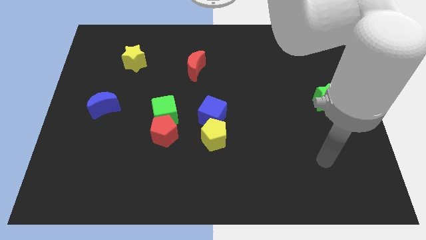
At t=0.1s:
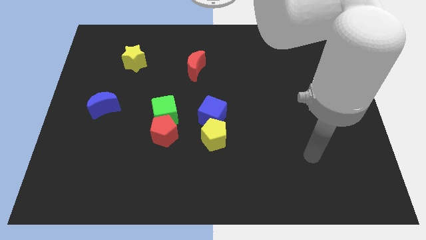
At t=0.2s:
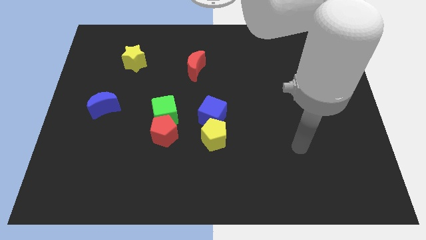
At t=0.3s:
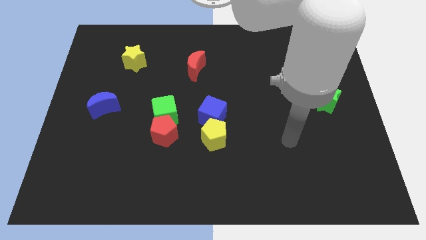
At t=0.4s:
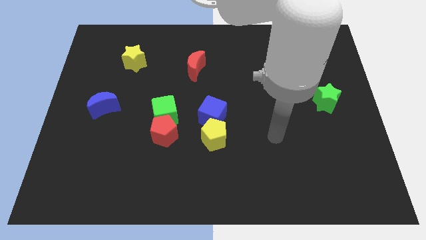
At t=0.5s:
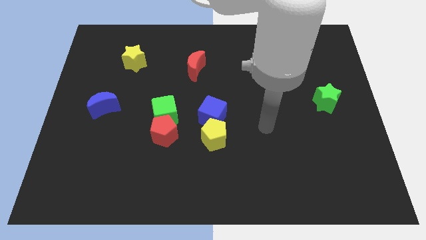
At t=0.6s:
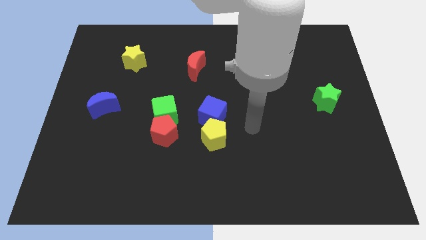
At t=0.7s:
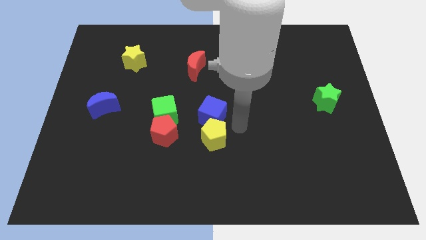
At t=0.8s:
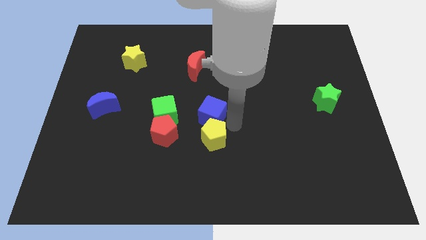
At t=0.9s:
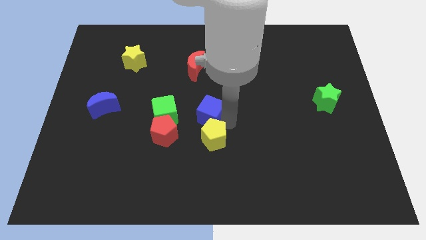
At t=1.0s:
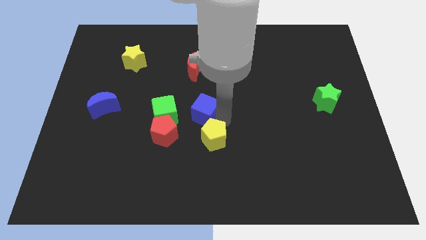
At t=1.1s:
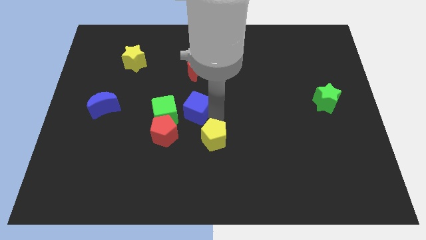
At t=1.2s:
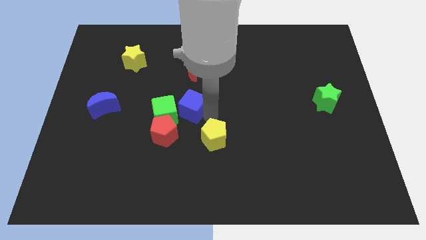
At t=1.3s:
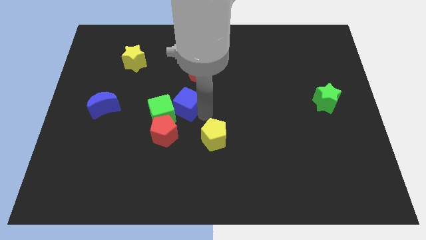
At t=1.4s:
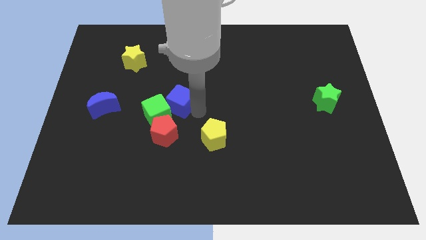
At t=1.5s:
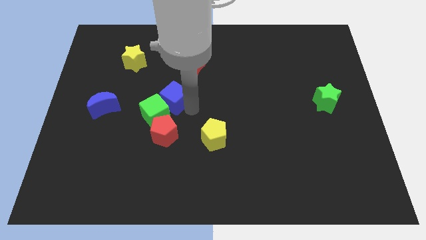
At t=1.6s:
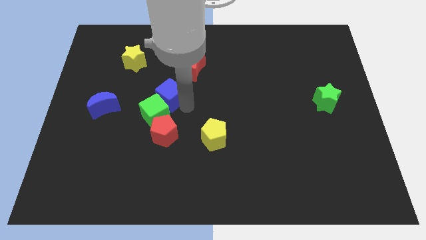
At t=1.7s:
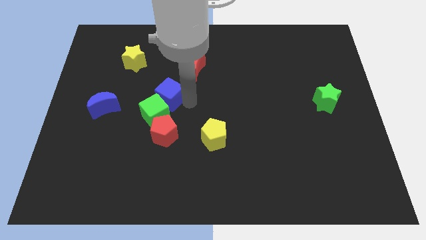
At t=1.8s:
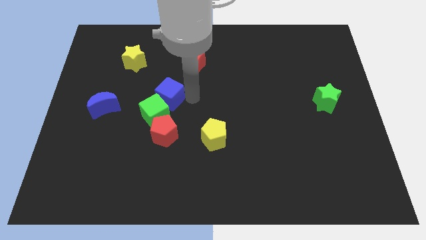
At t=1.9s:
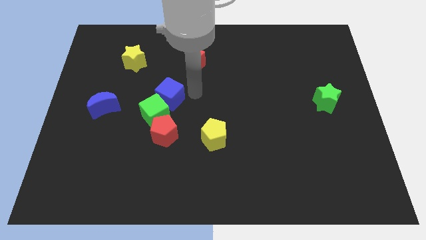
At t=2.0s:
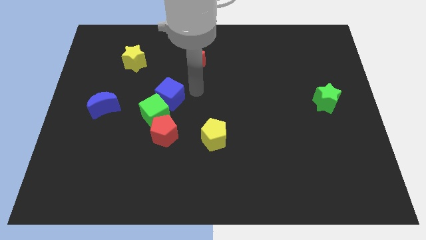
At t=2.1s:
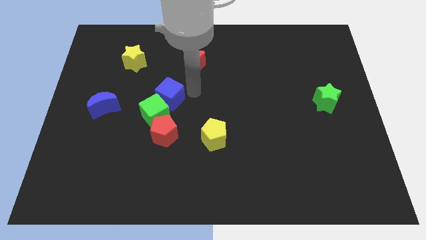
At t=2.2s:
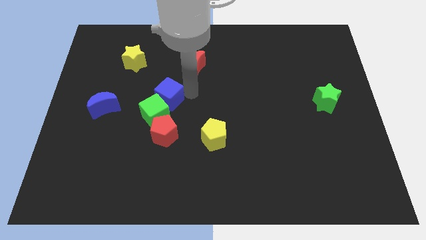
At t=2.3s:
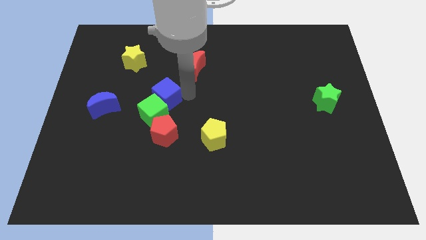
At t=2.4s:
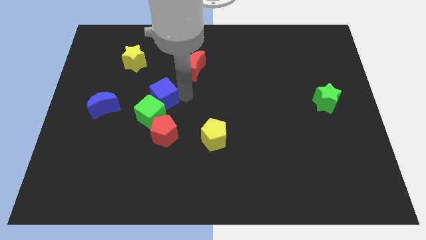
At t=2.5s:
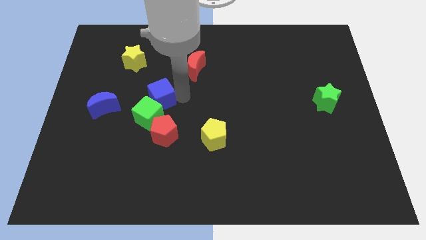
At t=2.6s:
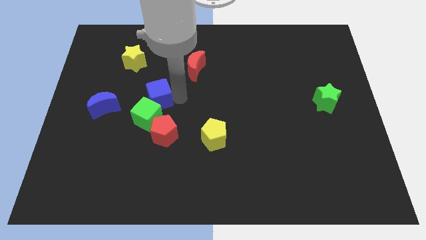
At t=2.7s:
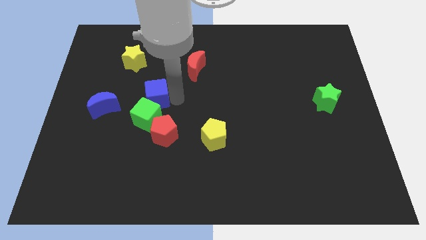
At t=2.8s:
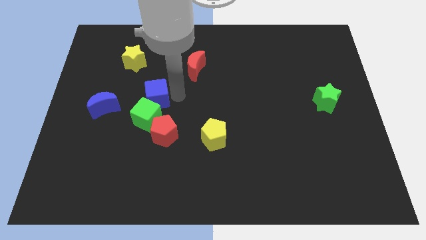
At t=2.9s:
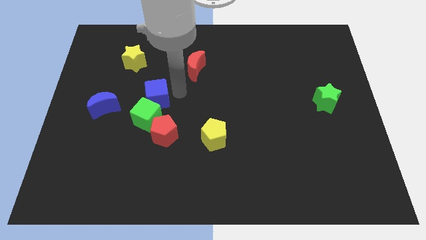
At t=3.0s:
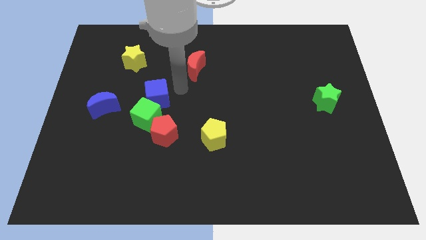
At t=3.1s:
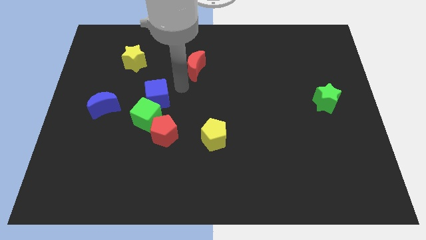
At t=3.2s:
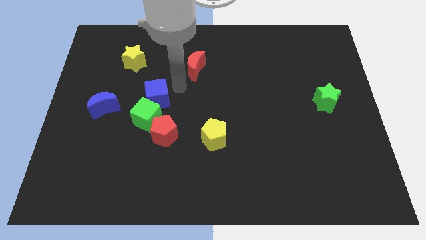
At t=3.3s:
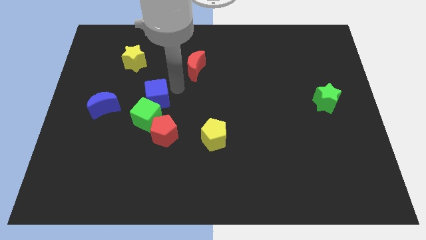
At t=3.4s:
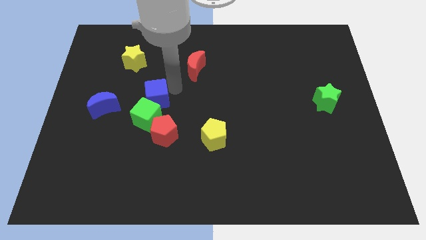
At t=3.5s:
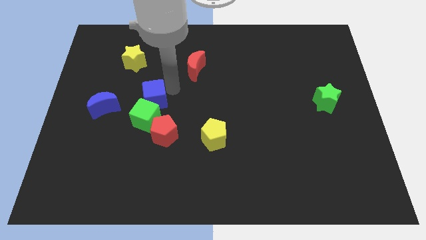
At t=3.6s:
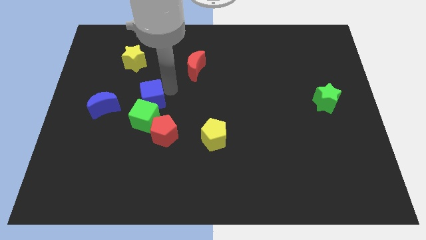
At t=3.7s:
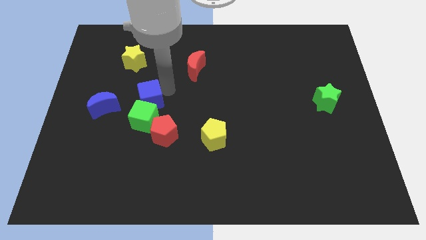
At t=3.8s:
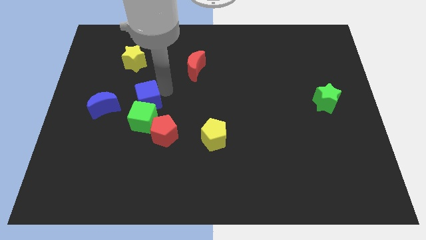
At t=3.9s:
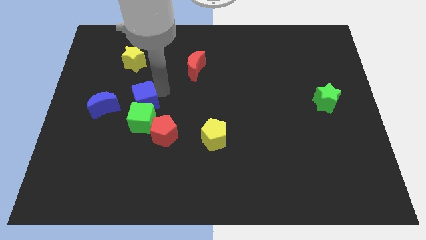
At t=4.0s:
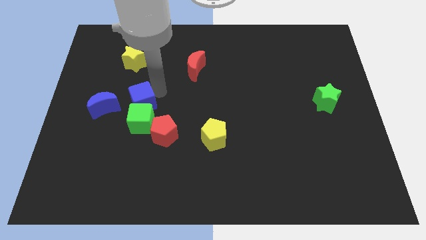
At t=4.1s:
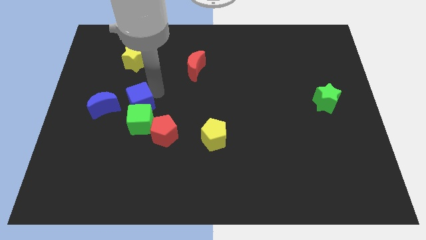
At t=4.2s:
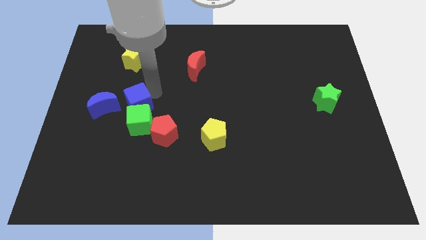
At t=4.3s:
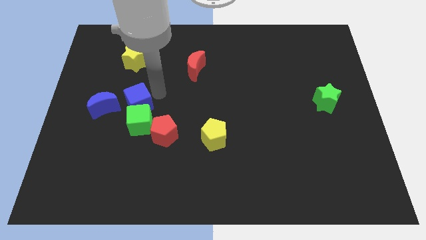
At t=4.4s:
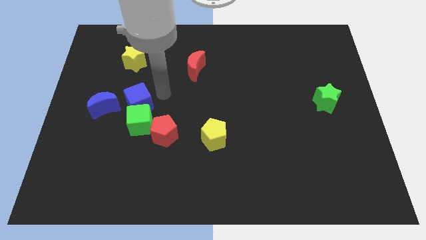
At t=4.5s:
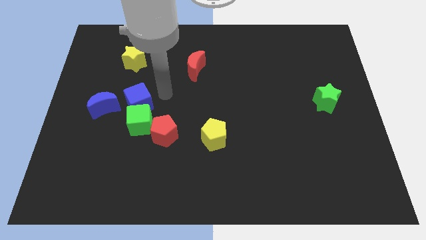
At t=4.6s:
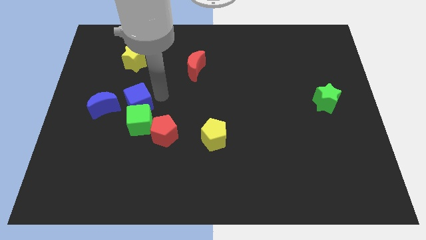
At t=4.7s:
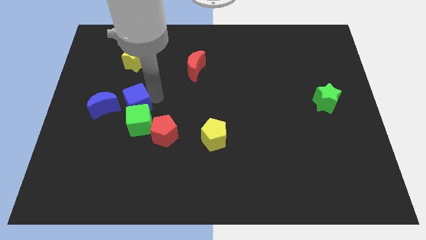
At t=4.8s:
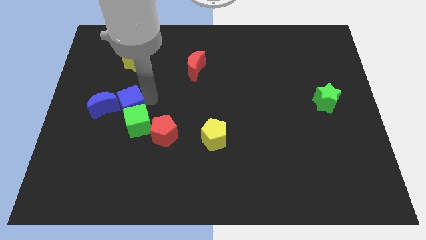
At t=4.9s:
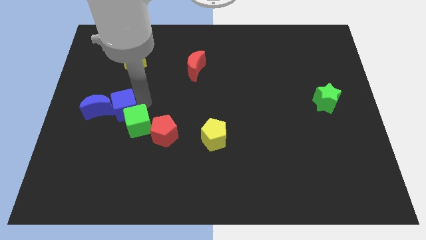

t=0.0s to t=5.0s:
push the blue cube to the blue moon

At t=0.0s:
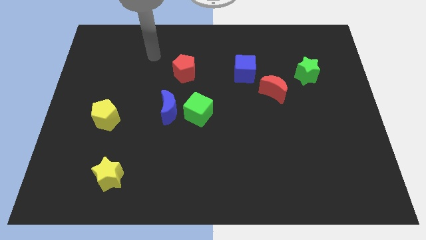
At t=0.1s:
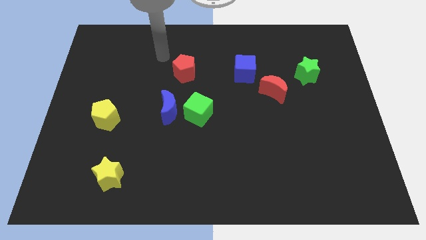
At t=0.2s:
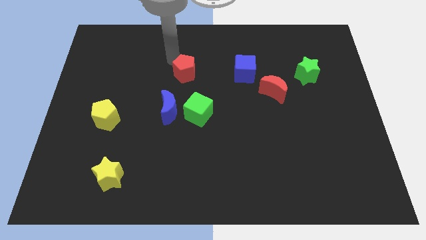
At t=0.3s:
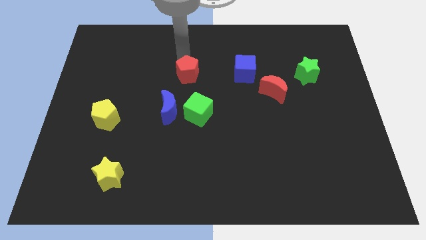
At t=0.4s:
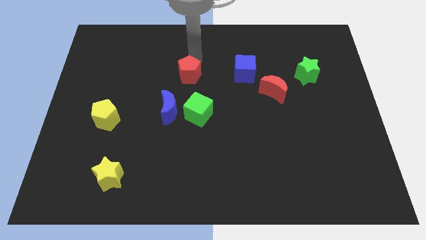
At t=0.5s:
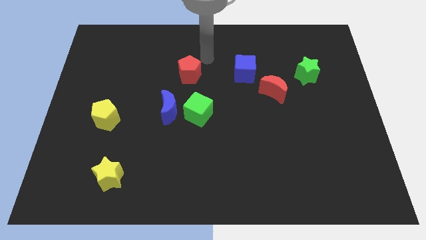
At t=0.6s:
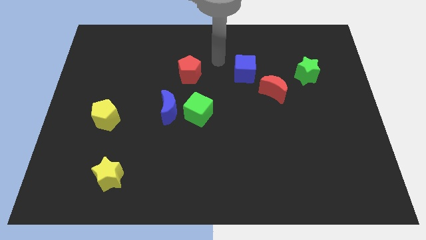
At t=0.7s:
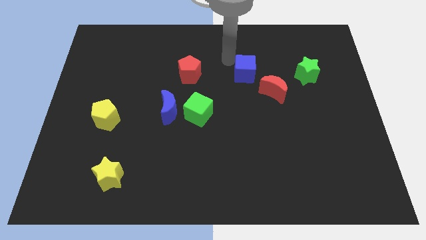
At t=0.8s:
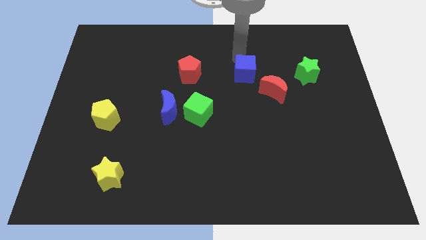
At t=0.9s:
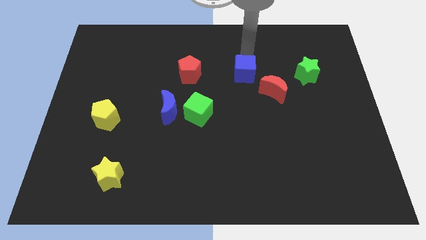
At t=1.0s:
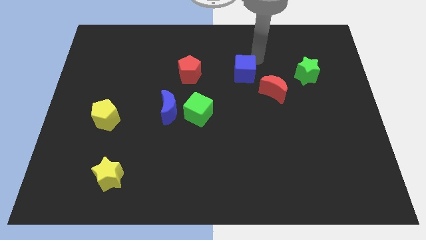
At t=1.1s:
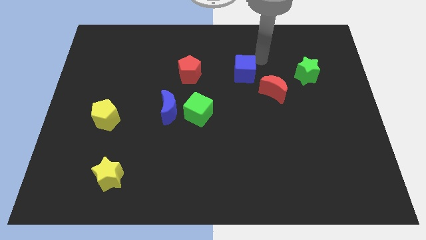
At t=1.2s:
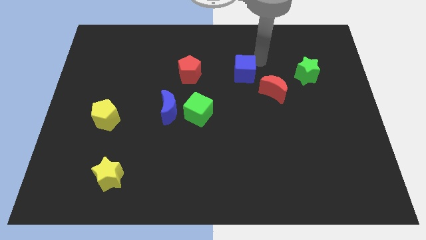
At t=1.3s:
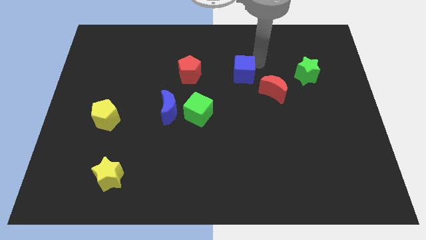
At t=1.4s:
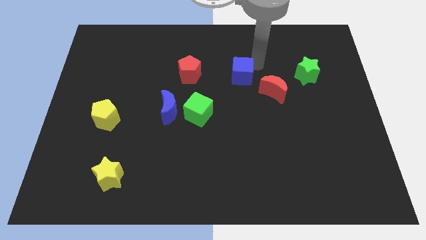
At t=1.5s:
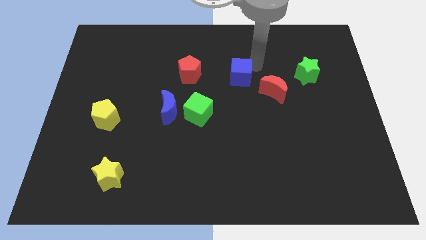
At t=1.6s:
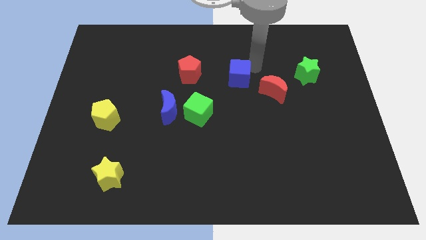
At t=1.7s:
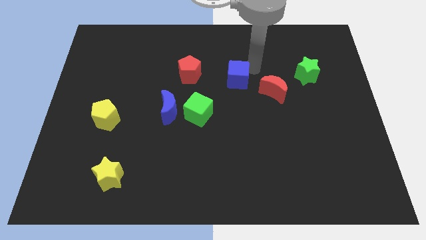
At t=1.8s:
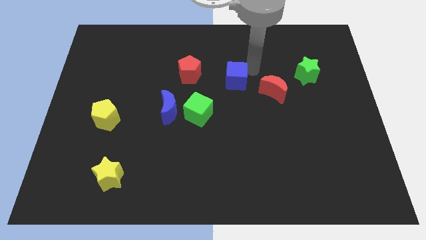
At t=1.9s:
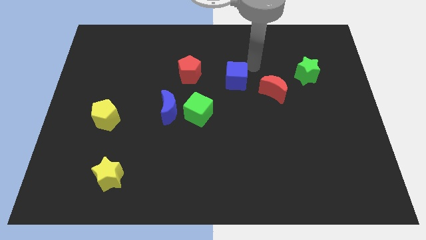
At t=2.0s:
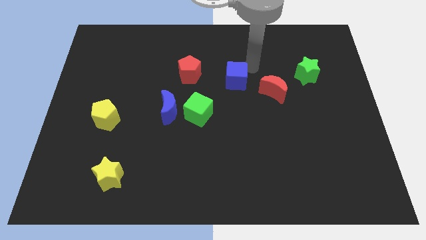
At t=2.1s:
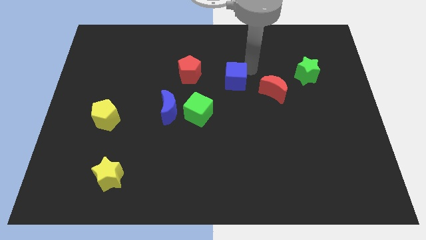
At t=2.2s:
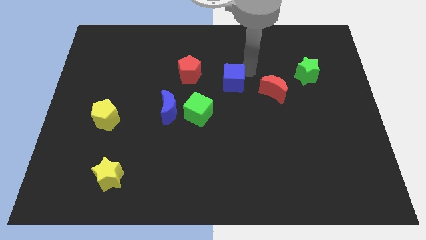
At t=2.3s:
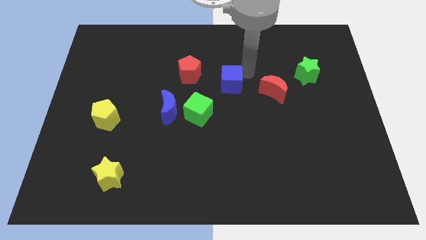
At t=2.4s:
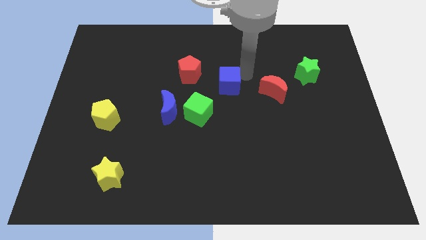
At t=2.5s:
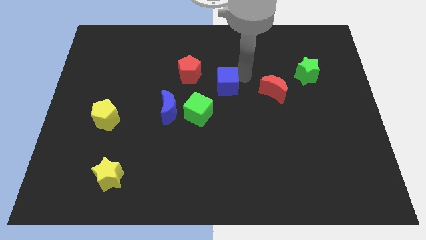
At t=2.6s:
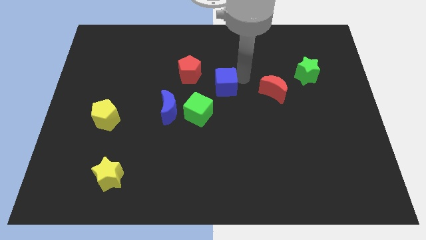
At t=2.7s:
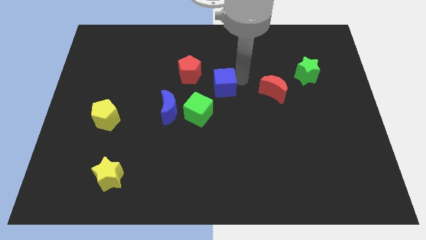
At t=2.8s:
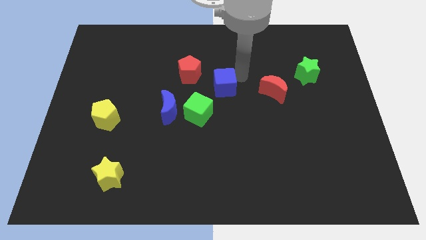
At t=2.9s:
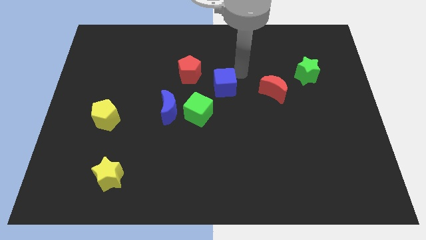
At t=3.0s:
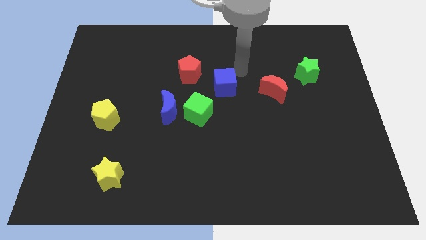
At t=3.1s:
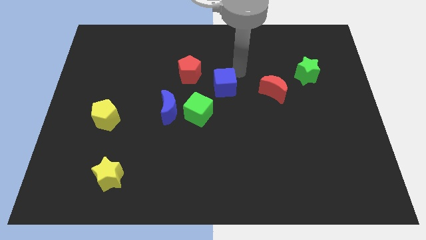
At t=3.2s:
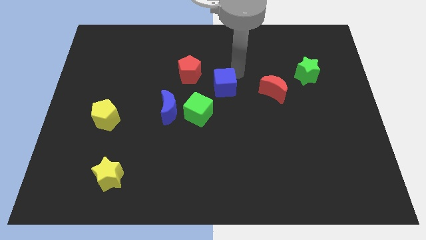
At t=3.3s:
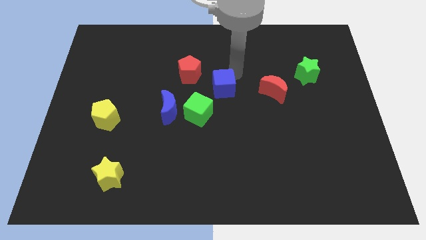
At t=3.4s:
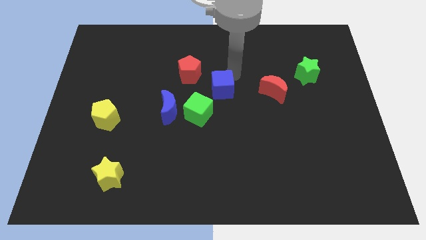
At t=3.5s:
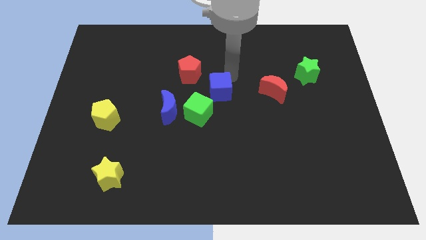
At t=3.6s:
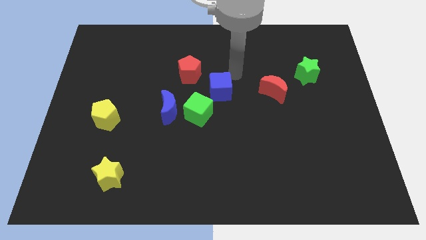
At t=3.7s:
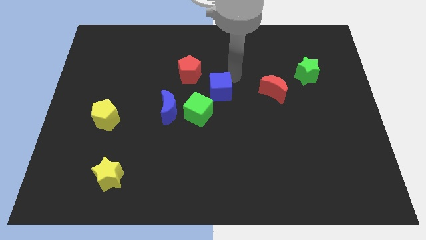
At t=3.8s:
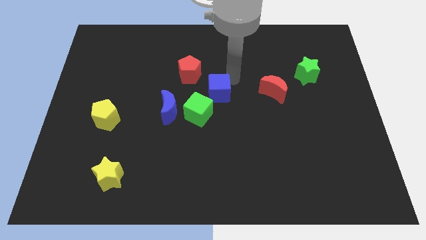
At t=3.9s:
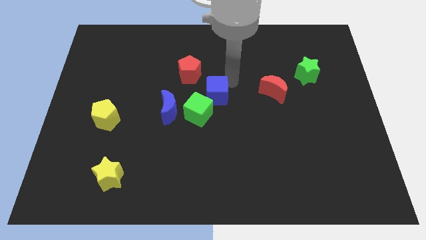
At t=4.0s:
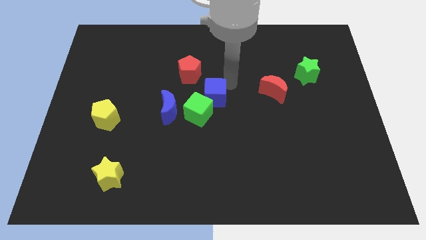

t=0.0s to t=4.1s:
slide the blue cube next to the green cube
